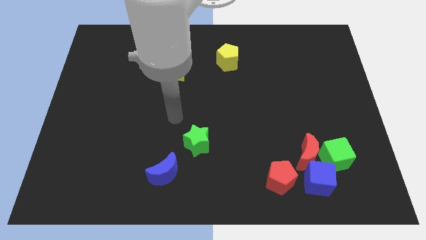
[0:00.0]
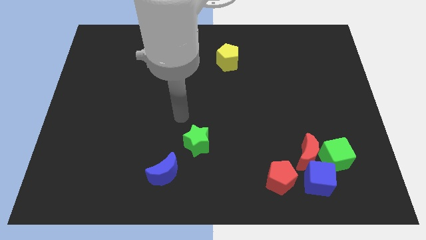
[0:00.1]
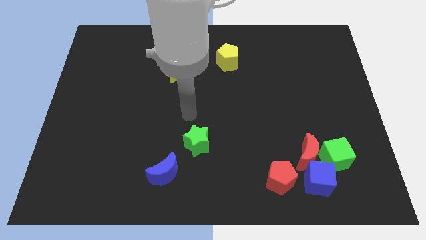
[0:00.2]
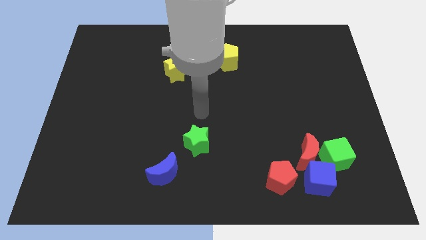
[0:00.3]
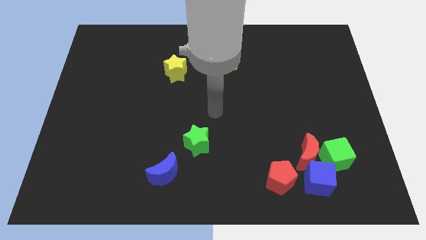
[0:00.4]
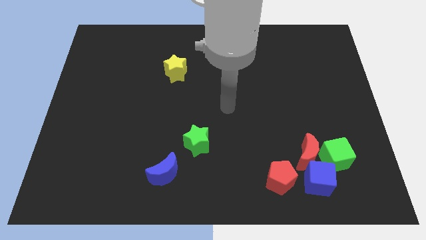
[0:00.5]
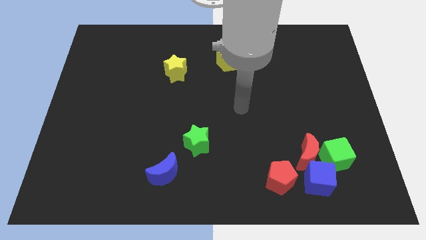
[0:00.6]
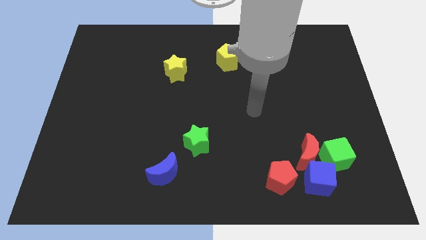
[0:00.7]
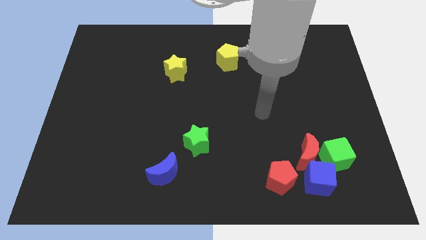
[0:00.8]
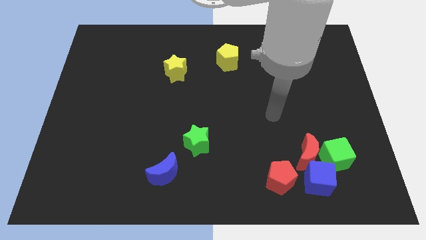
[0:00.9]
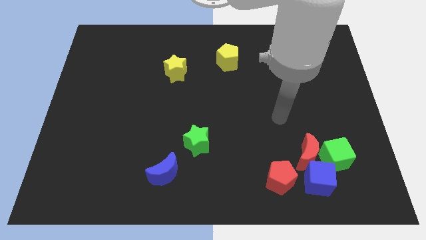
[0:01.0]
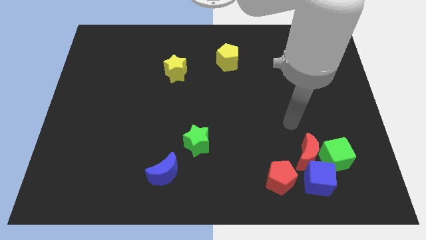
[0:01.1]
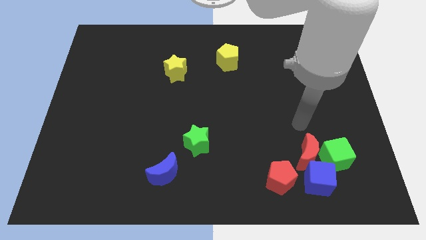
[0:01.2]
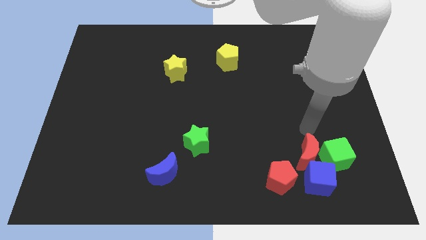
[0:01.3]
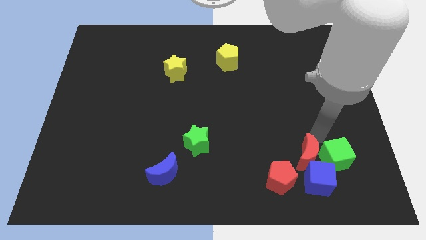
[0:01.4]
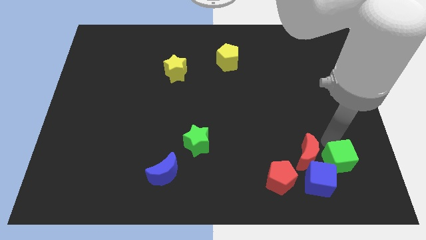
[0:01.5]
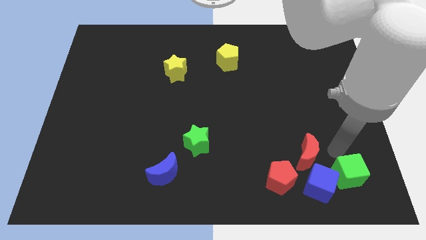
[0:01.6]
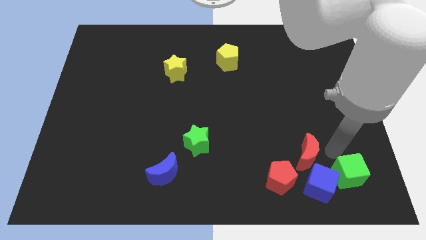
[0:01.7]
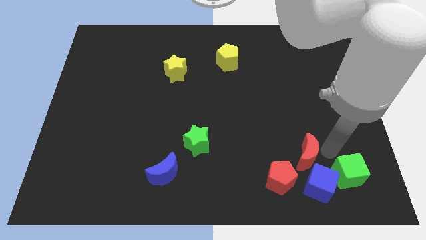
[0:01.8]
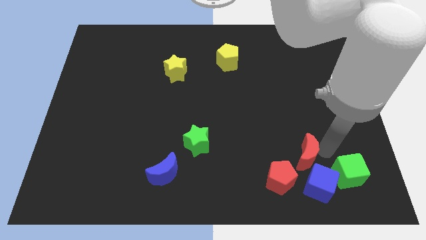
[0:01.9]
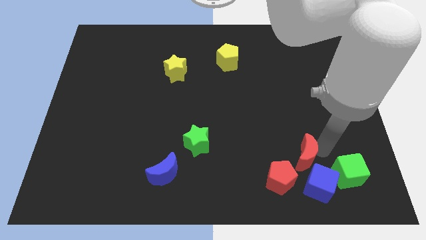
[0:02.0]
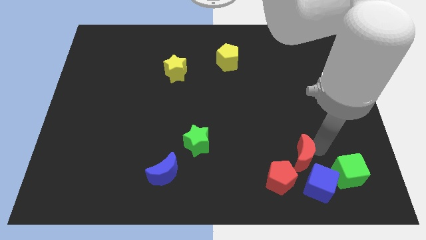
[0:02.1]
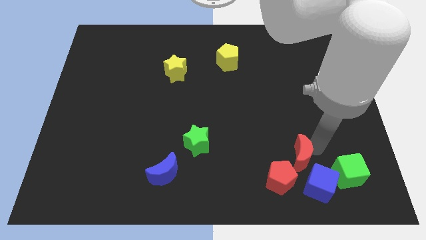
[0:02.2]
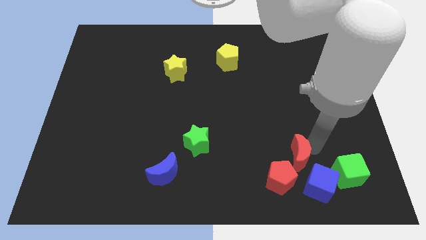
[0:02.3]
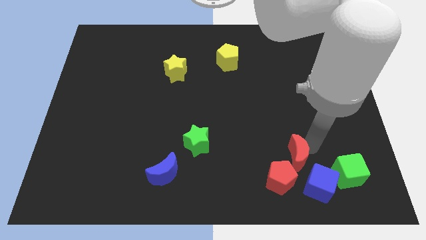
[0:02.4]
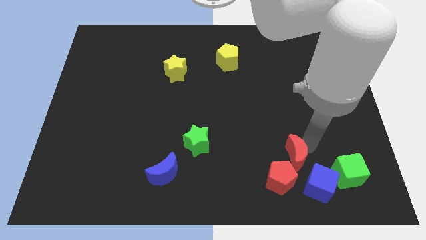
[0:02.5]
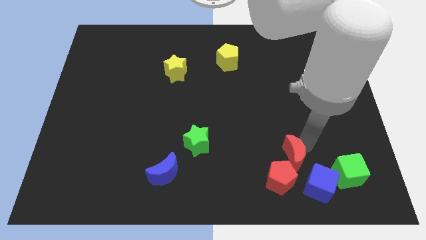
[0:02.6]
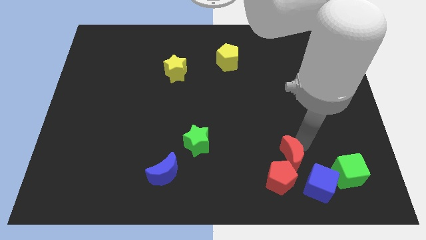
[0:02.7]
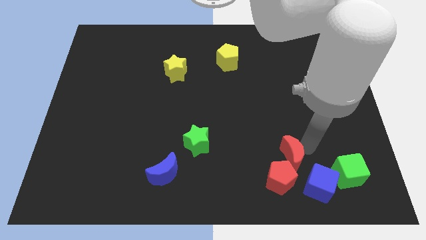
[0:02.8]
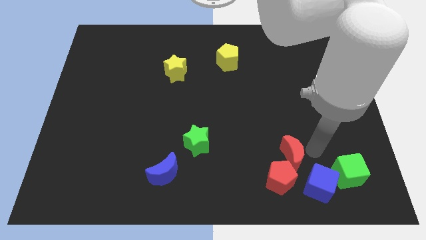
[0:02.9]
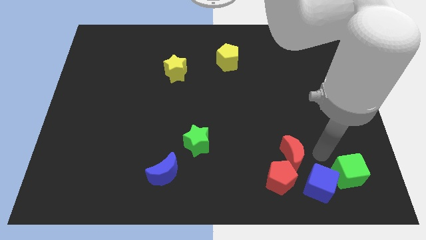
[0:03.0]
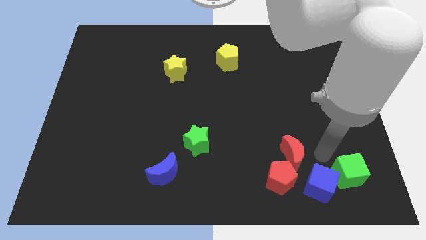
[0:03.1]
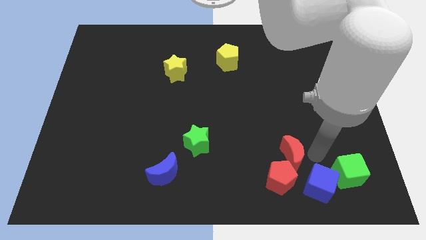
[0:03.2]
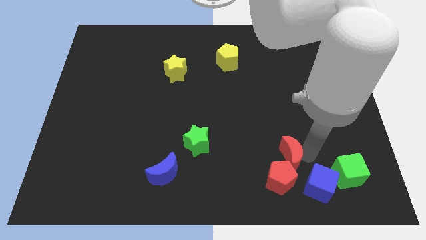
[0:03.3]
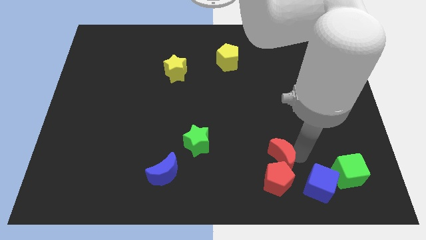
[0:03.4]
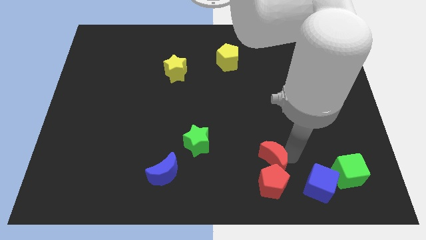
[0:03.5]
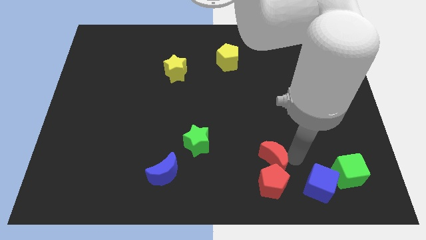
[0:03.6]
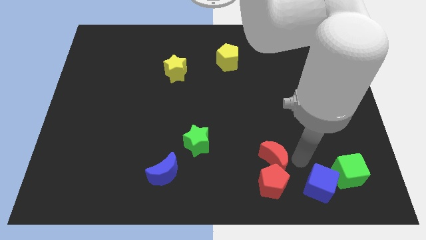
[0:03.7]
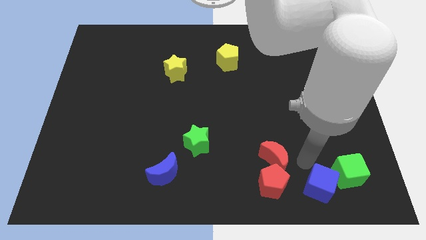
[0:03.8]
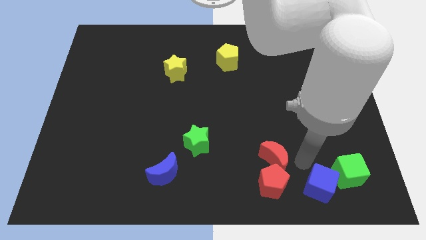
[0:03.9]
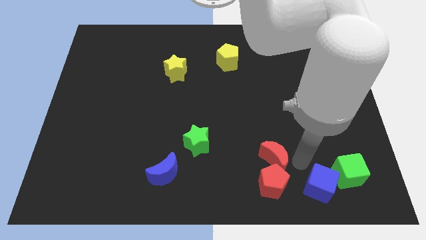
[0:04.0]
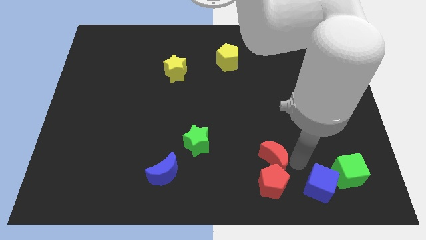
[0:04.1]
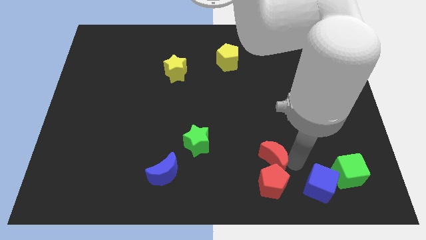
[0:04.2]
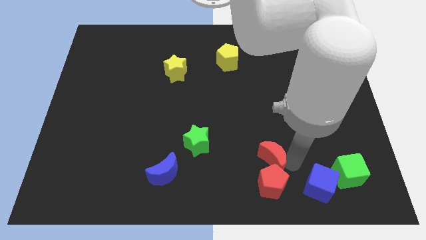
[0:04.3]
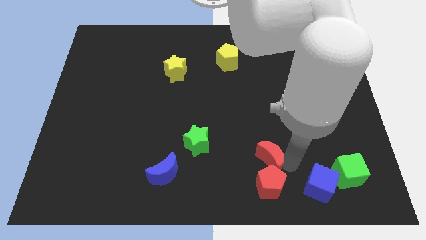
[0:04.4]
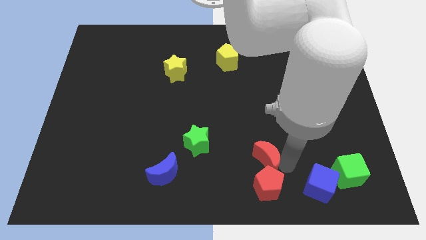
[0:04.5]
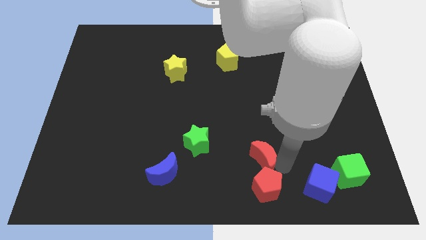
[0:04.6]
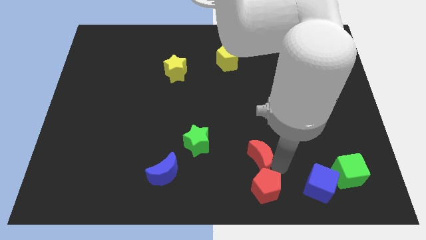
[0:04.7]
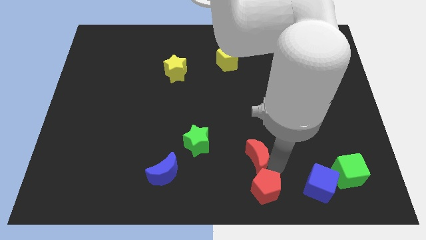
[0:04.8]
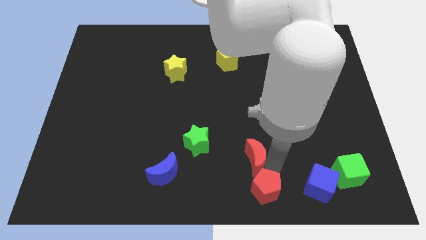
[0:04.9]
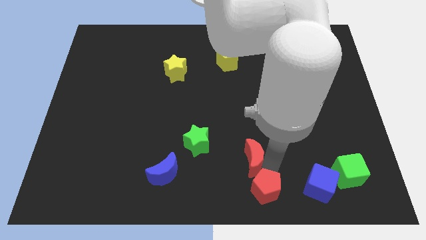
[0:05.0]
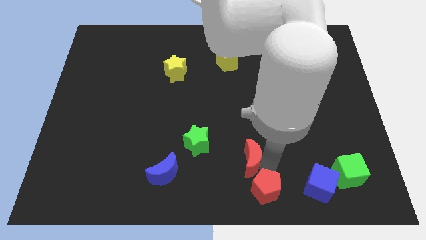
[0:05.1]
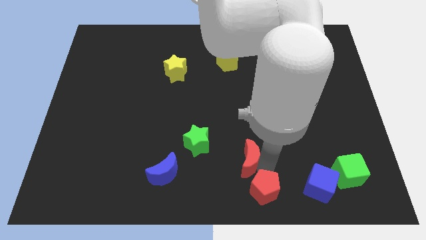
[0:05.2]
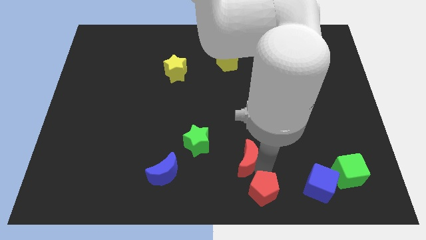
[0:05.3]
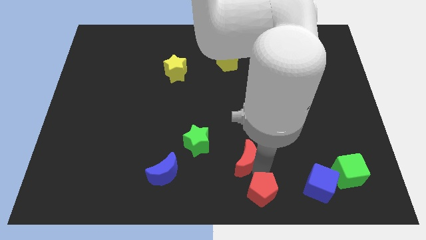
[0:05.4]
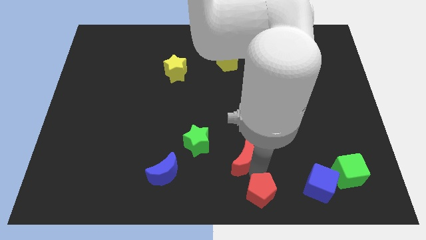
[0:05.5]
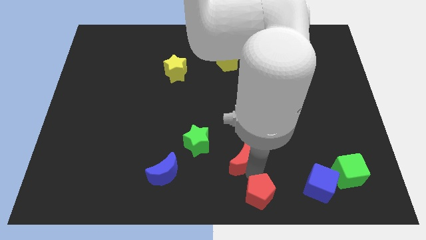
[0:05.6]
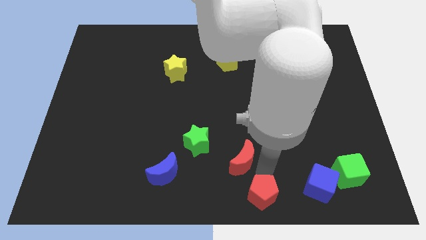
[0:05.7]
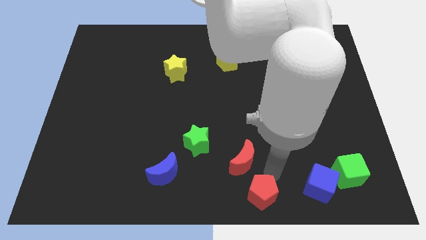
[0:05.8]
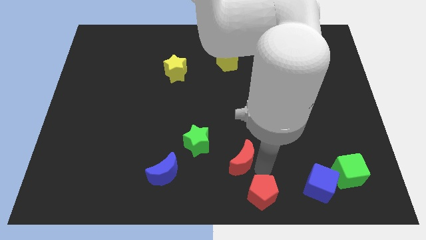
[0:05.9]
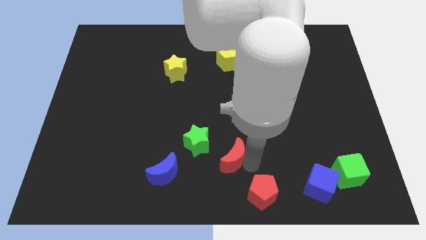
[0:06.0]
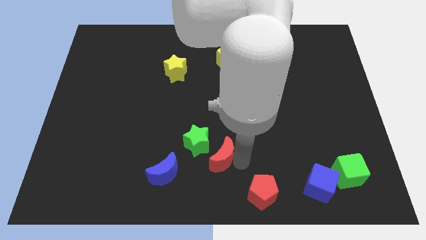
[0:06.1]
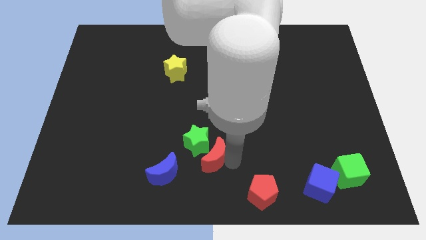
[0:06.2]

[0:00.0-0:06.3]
move the red moon close to the green star

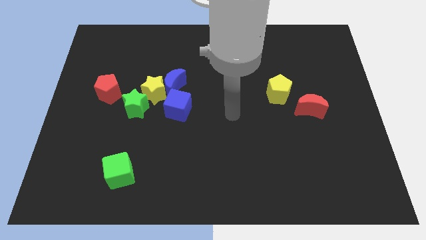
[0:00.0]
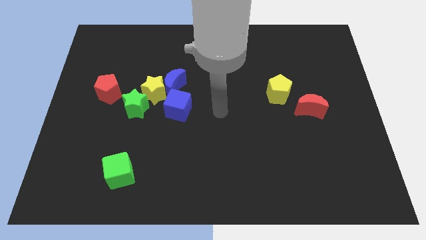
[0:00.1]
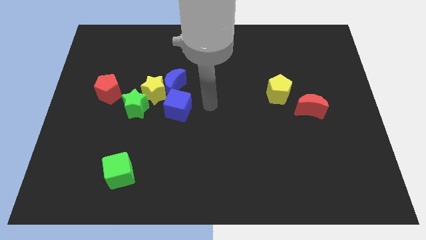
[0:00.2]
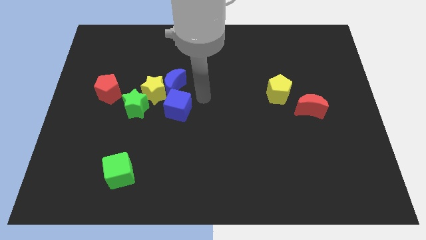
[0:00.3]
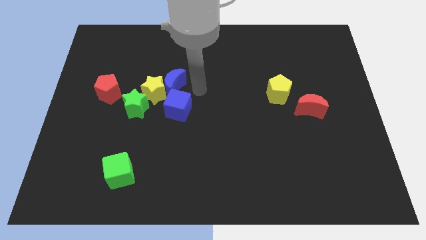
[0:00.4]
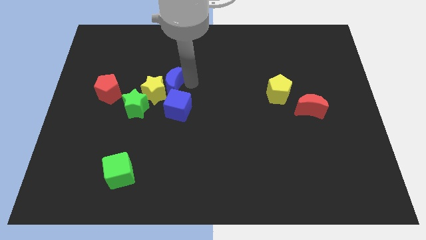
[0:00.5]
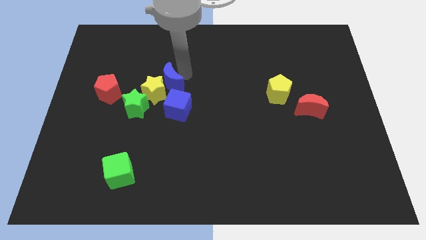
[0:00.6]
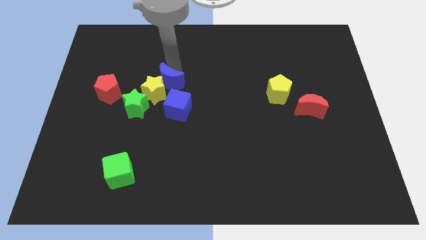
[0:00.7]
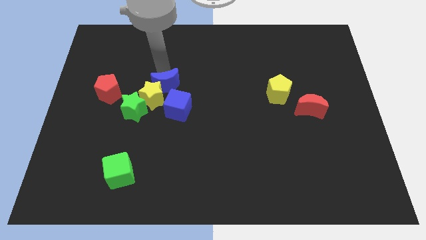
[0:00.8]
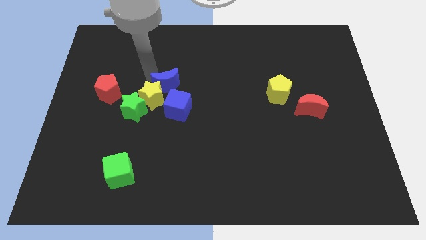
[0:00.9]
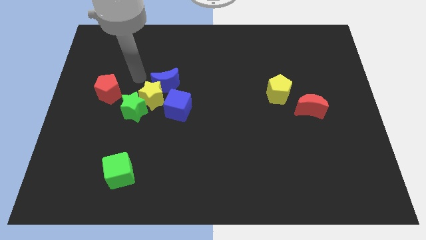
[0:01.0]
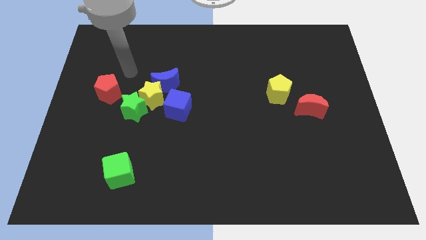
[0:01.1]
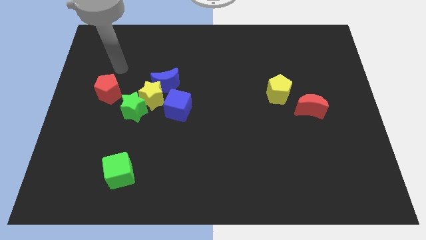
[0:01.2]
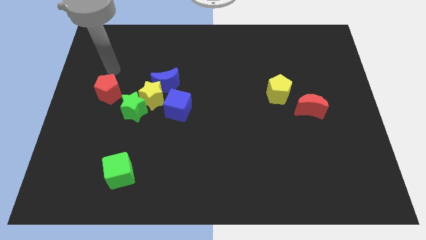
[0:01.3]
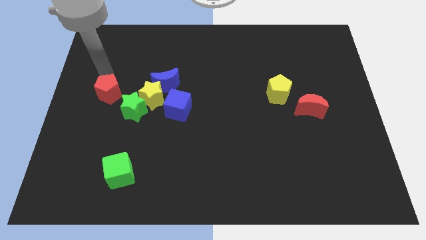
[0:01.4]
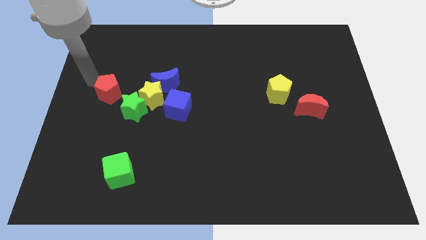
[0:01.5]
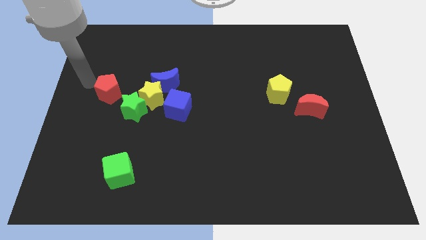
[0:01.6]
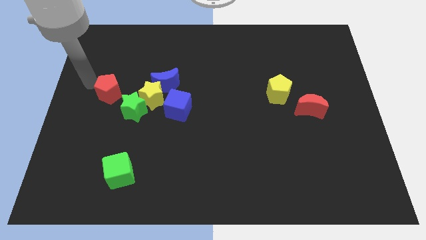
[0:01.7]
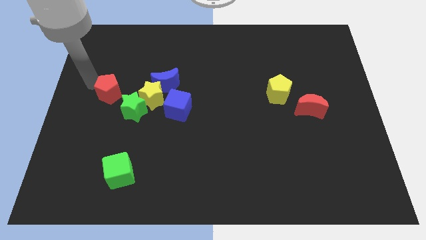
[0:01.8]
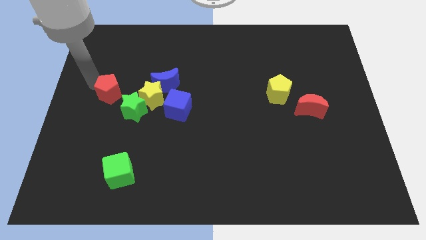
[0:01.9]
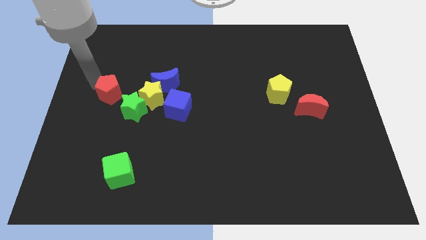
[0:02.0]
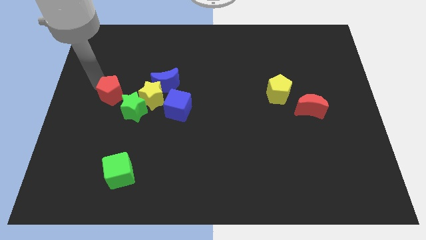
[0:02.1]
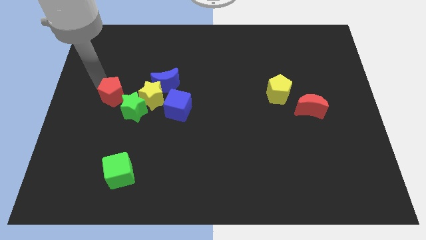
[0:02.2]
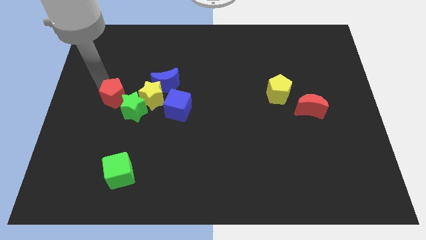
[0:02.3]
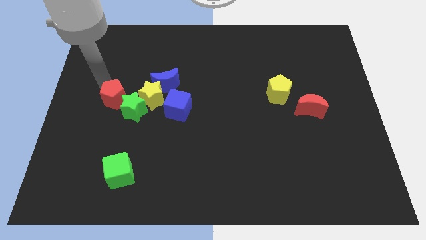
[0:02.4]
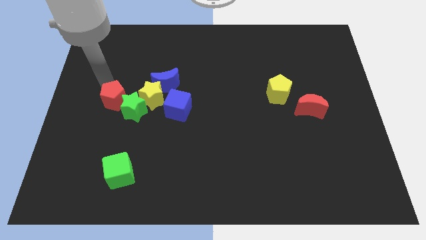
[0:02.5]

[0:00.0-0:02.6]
move the red pentagon next to the green star
